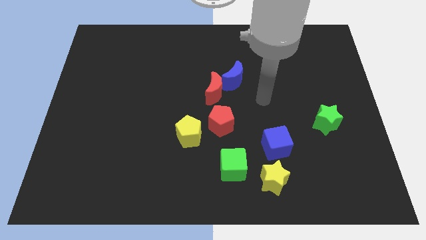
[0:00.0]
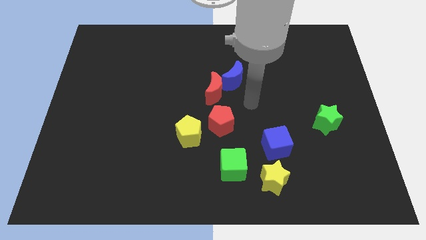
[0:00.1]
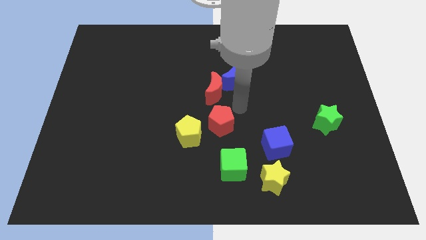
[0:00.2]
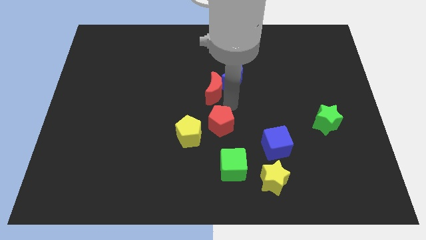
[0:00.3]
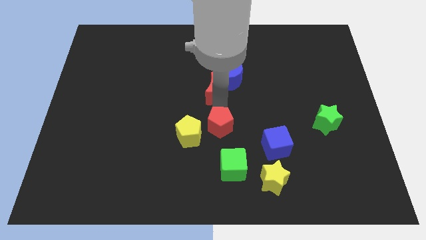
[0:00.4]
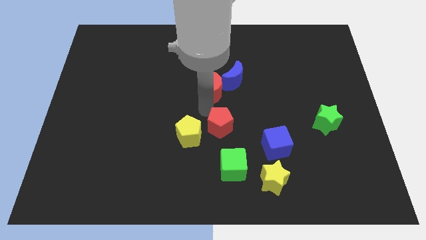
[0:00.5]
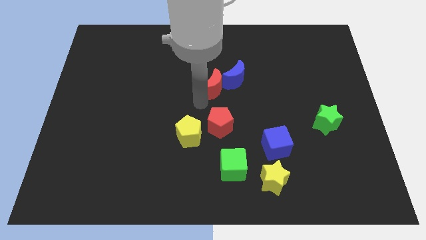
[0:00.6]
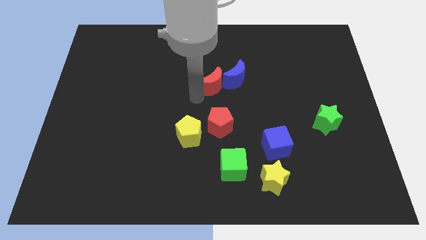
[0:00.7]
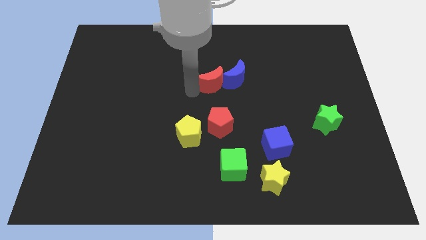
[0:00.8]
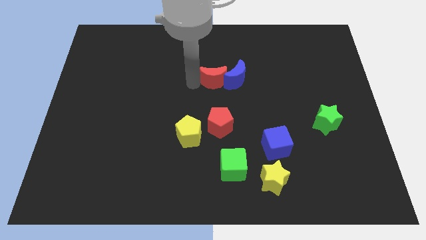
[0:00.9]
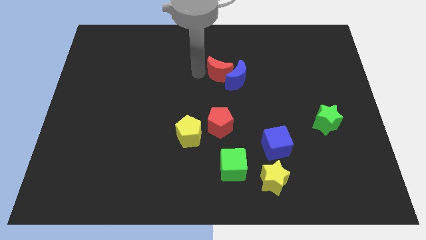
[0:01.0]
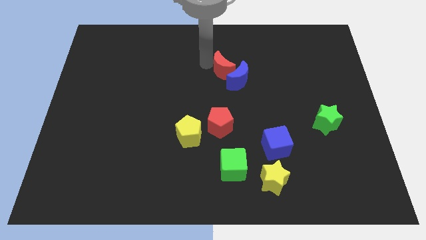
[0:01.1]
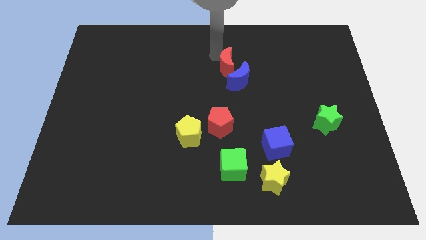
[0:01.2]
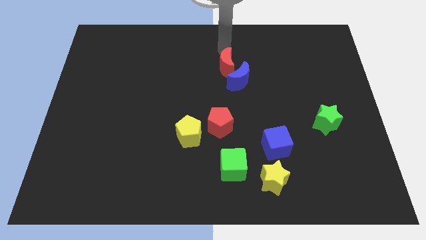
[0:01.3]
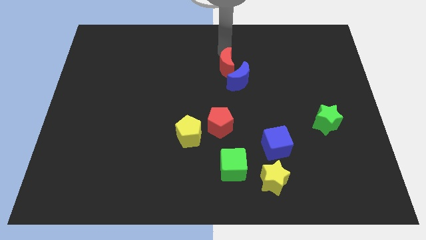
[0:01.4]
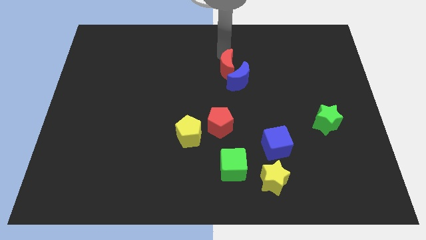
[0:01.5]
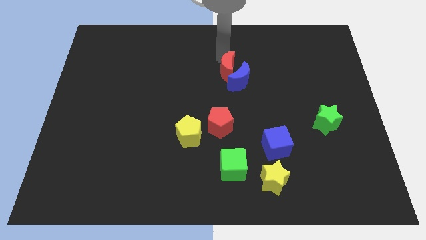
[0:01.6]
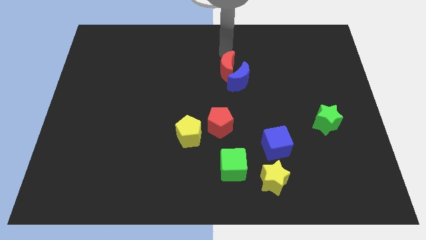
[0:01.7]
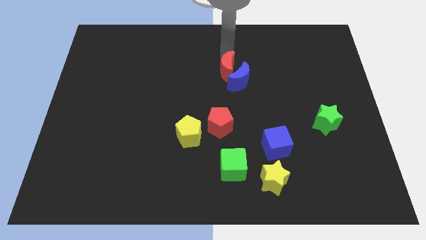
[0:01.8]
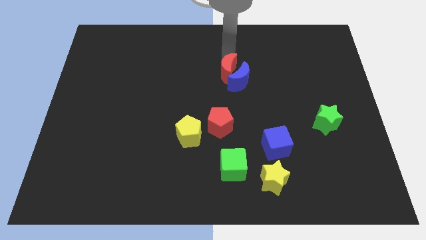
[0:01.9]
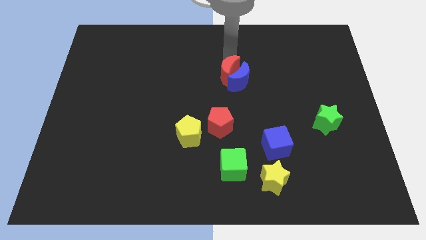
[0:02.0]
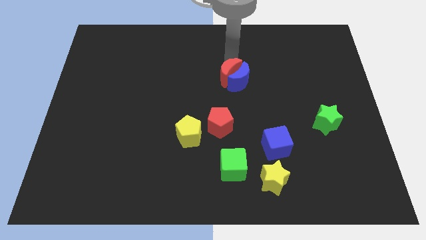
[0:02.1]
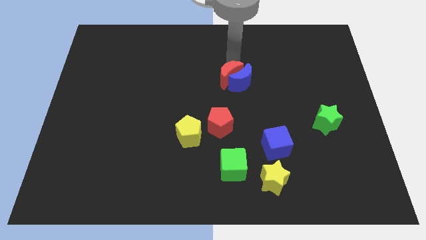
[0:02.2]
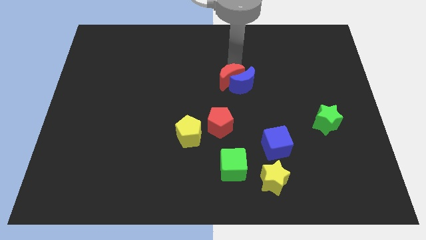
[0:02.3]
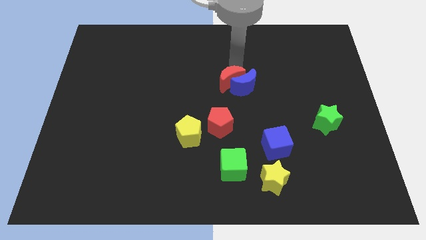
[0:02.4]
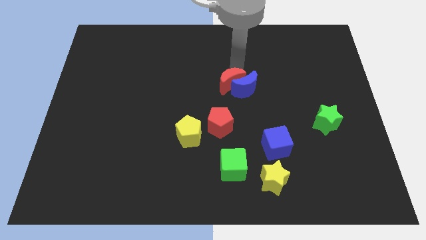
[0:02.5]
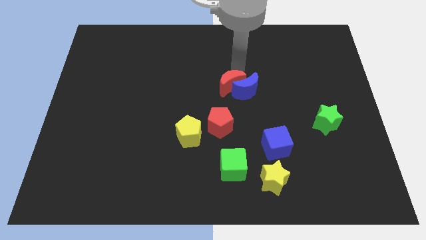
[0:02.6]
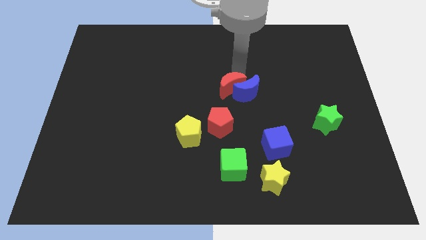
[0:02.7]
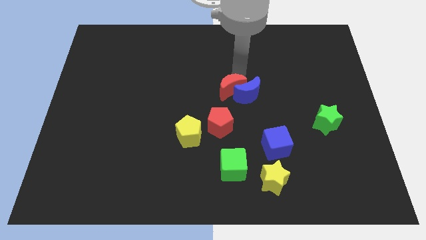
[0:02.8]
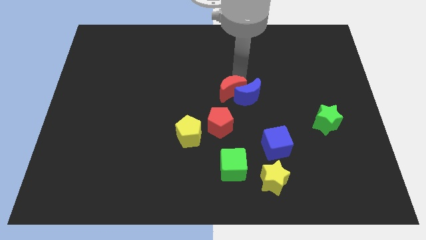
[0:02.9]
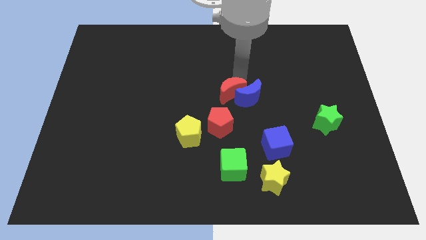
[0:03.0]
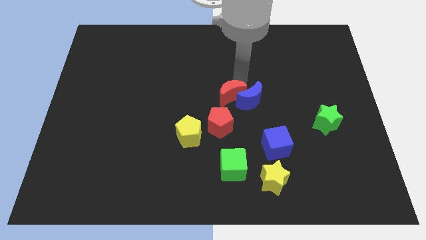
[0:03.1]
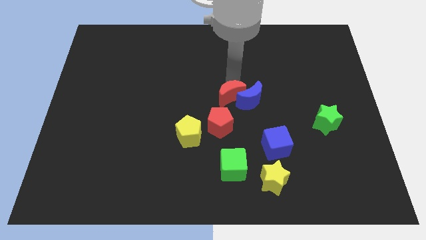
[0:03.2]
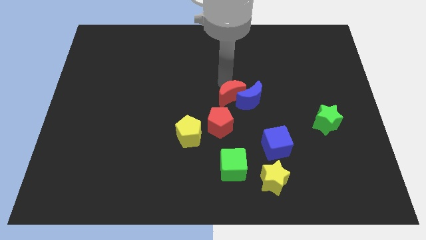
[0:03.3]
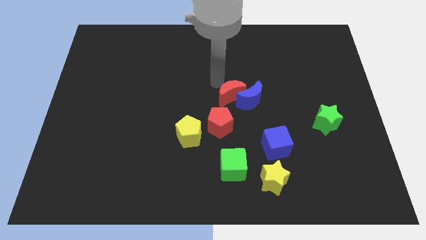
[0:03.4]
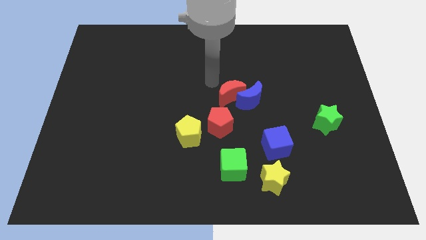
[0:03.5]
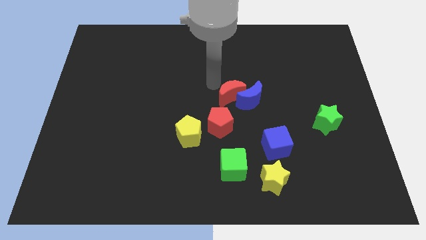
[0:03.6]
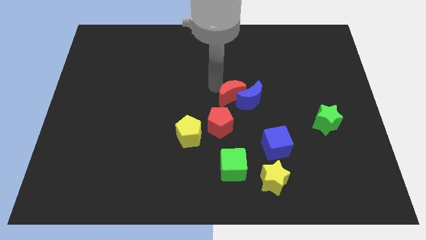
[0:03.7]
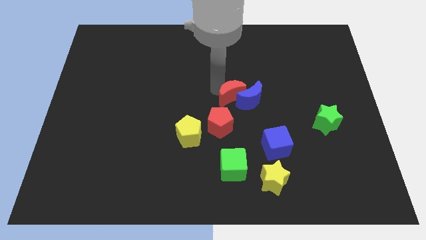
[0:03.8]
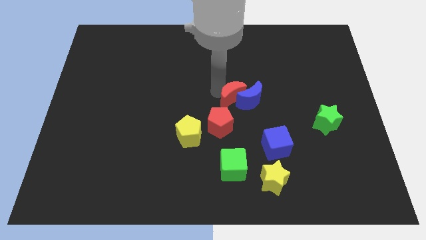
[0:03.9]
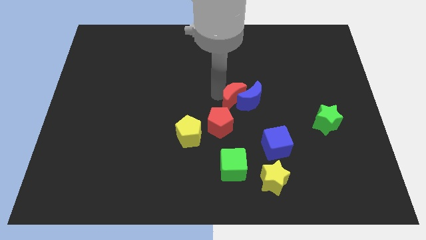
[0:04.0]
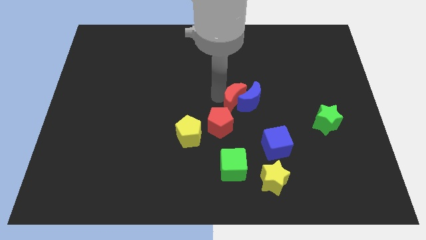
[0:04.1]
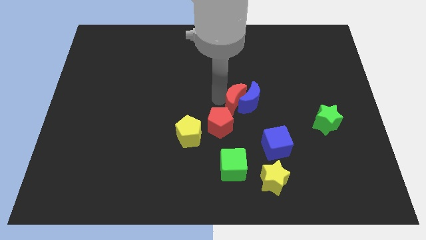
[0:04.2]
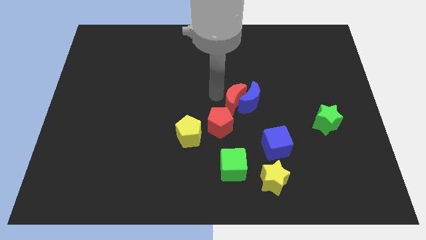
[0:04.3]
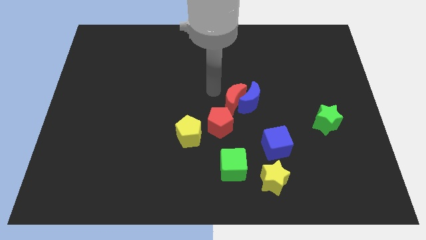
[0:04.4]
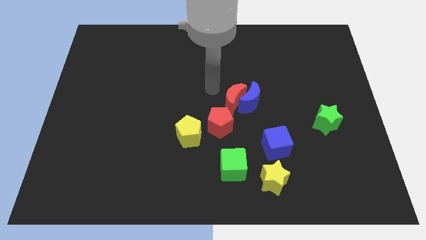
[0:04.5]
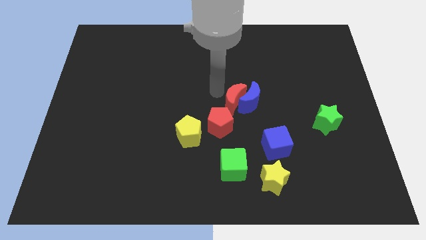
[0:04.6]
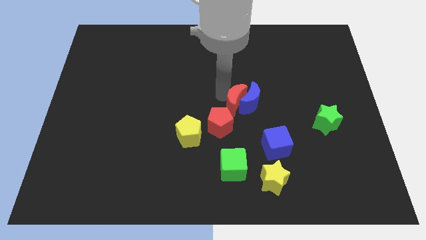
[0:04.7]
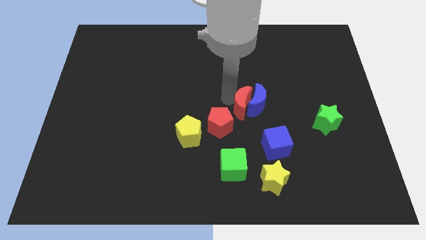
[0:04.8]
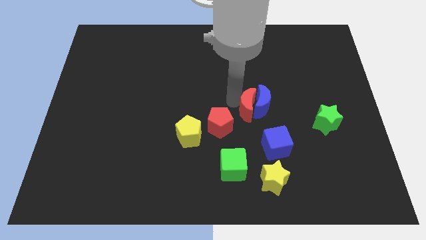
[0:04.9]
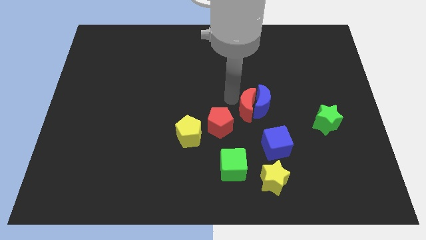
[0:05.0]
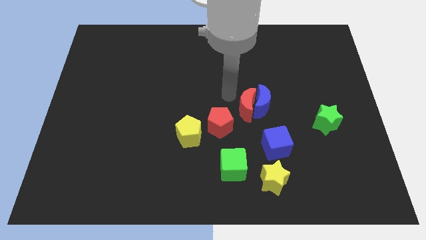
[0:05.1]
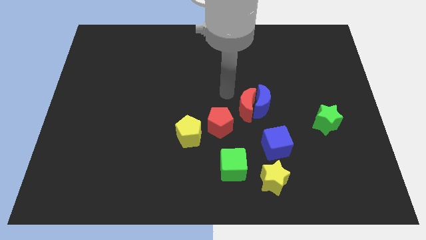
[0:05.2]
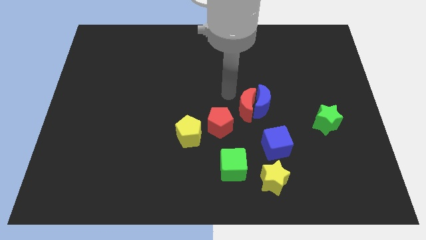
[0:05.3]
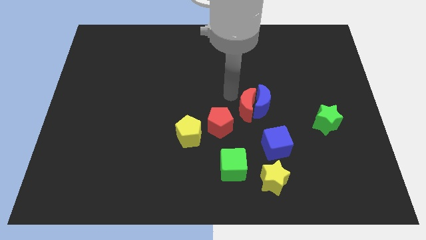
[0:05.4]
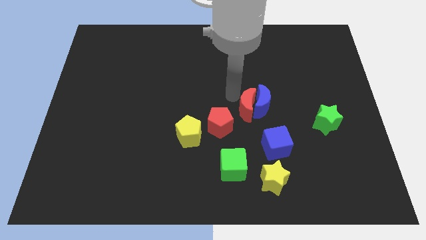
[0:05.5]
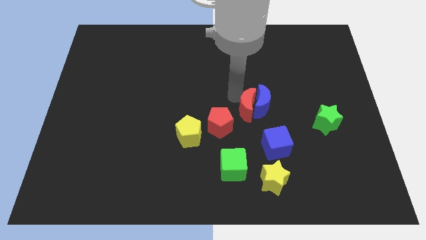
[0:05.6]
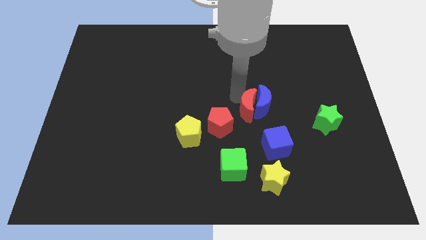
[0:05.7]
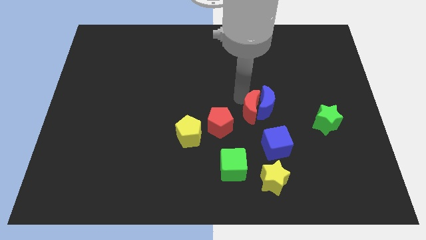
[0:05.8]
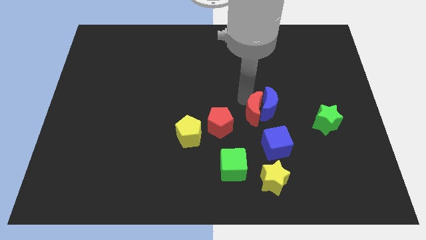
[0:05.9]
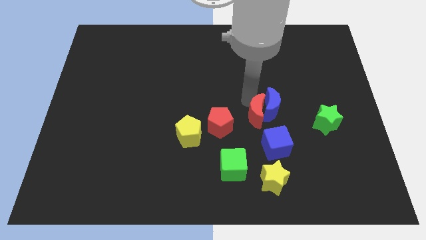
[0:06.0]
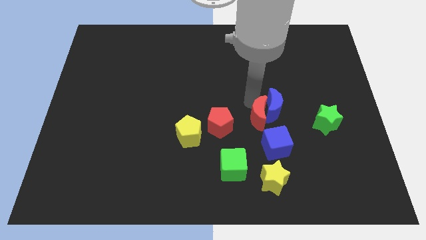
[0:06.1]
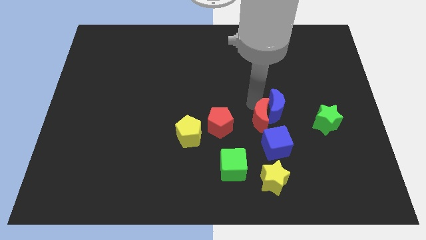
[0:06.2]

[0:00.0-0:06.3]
push the red moon to the top side of the yellow star
